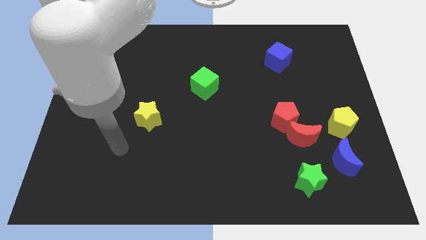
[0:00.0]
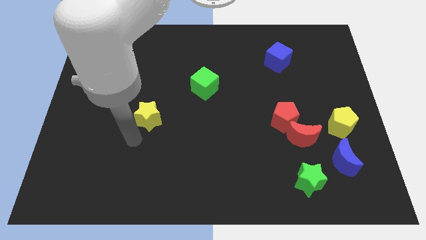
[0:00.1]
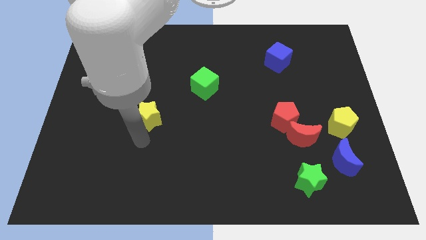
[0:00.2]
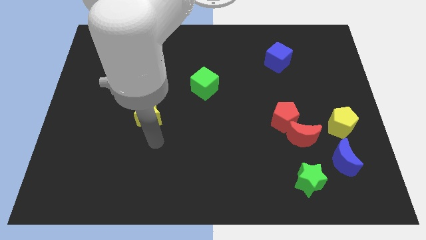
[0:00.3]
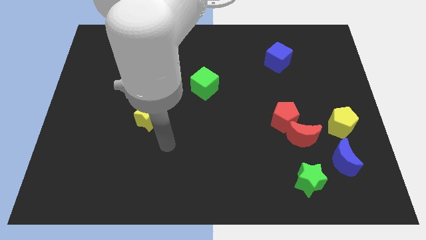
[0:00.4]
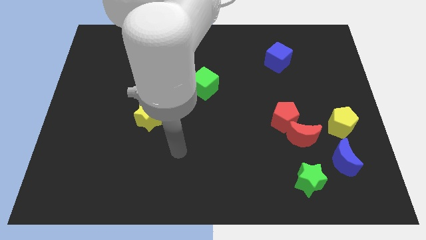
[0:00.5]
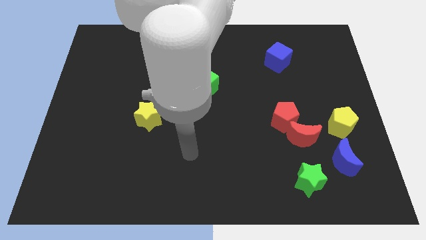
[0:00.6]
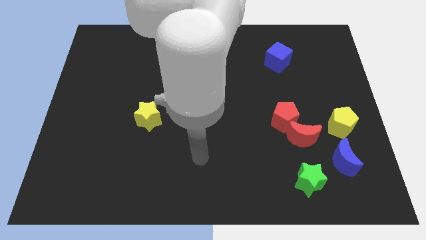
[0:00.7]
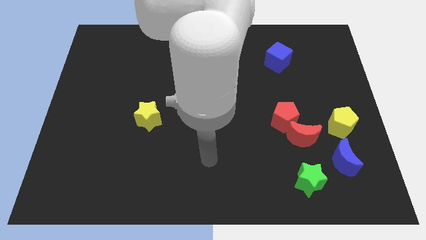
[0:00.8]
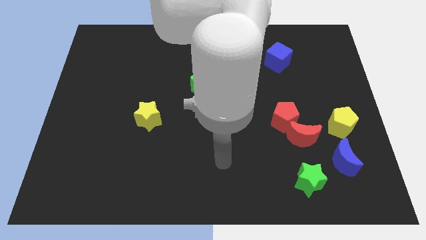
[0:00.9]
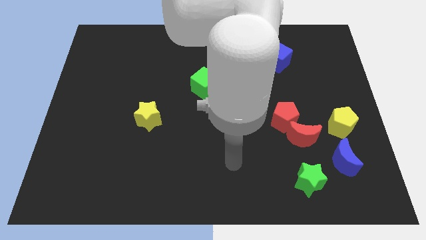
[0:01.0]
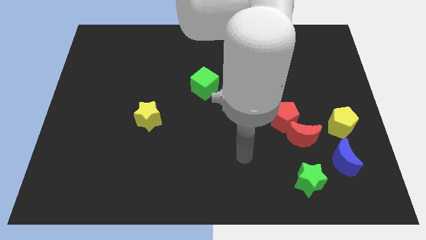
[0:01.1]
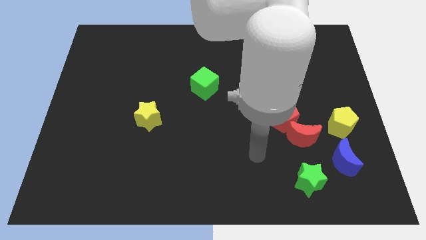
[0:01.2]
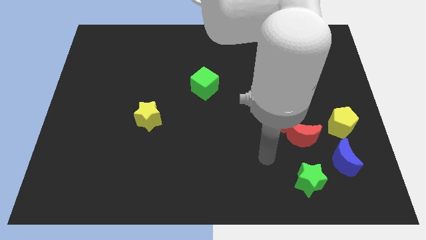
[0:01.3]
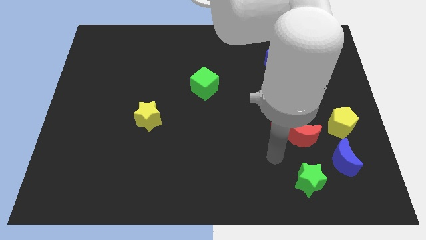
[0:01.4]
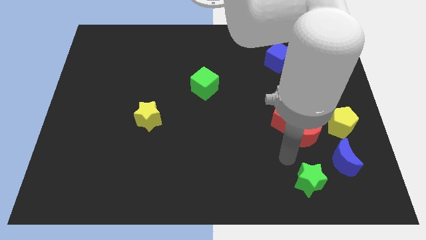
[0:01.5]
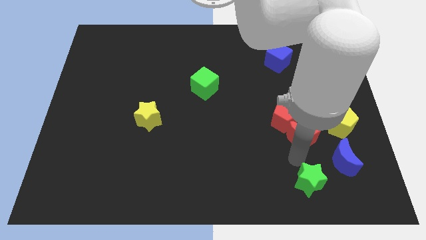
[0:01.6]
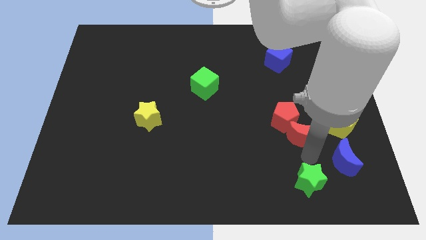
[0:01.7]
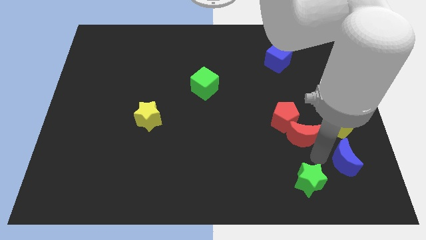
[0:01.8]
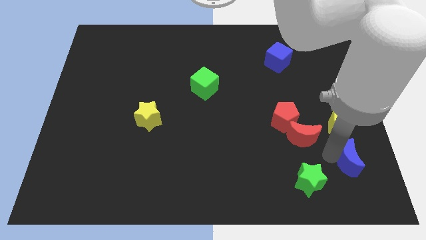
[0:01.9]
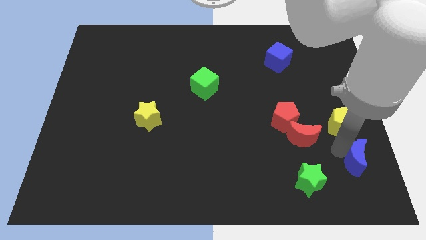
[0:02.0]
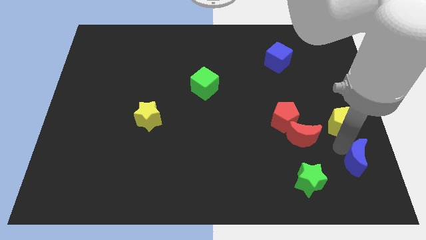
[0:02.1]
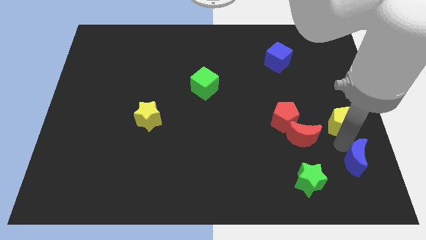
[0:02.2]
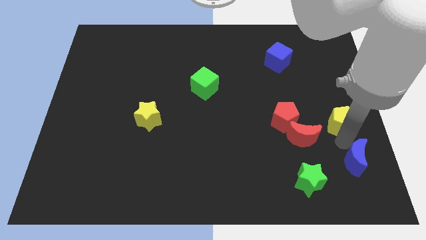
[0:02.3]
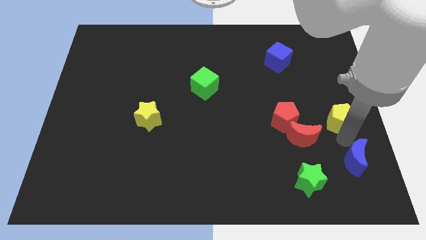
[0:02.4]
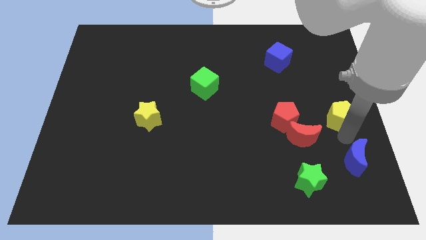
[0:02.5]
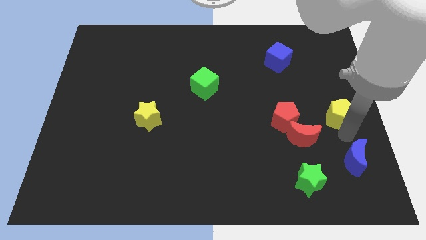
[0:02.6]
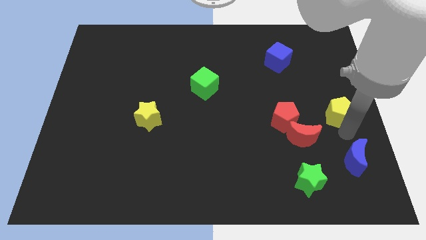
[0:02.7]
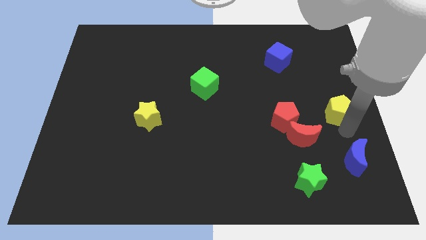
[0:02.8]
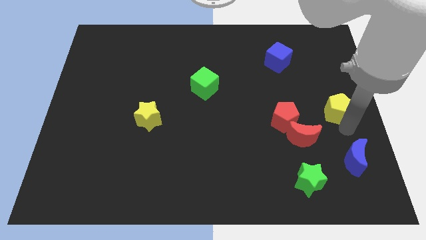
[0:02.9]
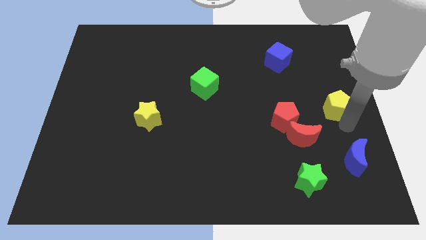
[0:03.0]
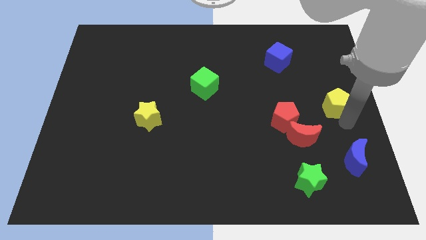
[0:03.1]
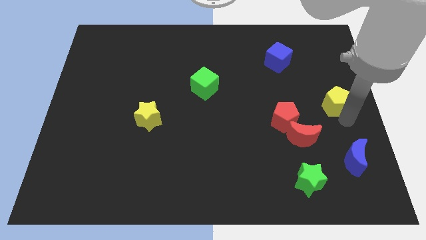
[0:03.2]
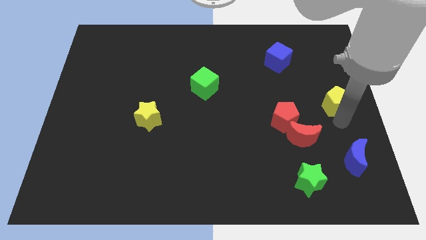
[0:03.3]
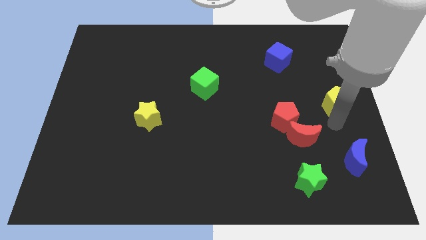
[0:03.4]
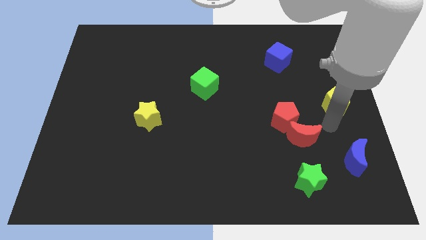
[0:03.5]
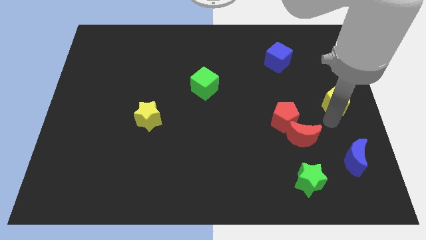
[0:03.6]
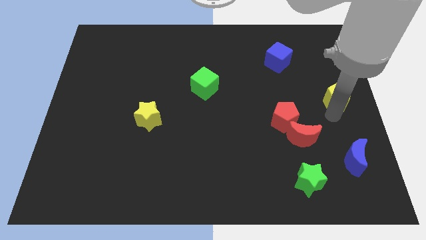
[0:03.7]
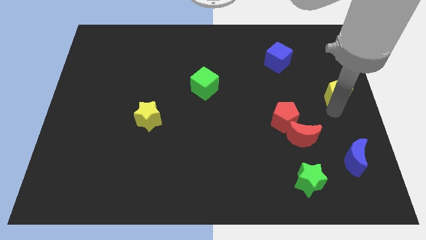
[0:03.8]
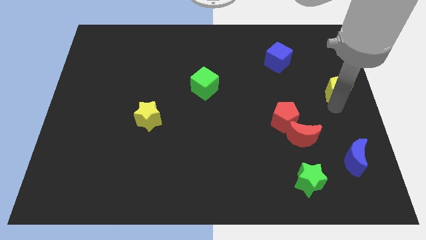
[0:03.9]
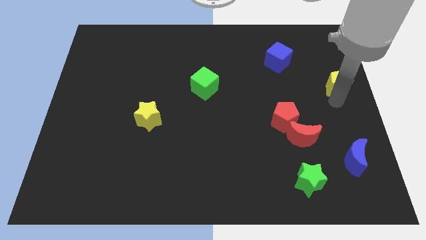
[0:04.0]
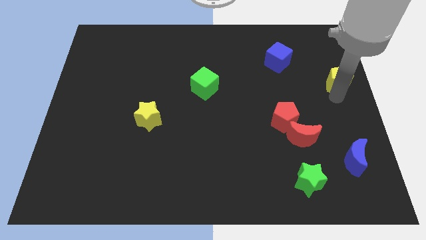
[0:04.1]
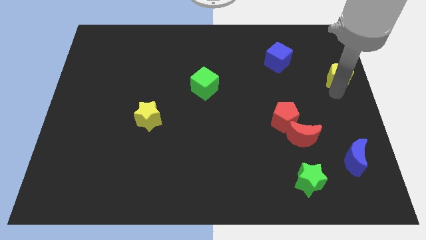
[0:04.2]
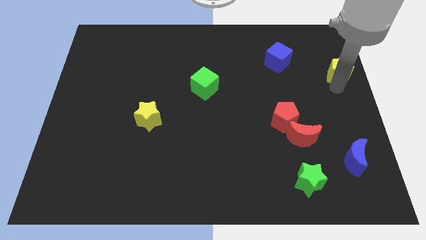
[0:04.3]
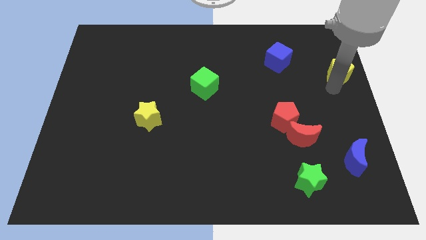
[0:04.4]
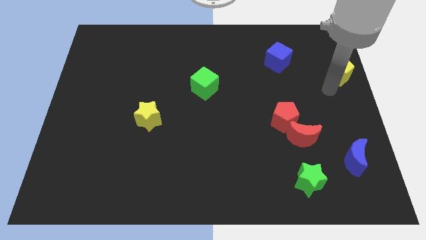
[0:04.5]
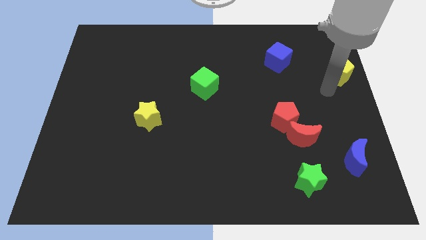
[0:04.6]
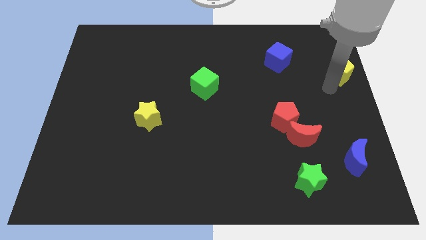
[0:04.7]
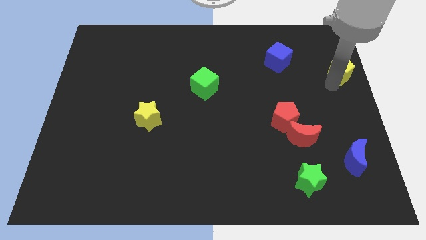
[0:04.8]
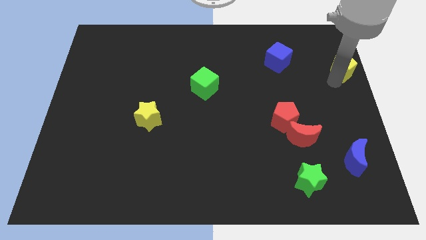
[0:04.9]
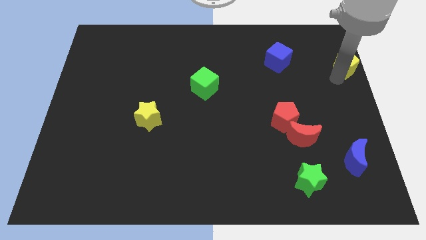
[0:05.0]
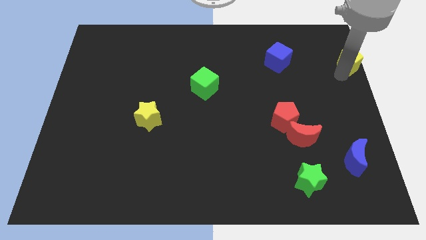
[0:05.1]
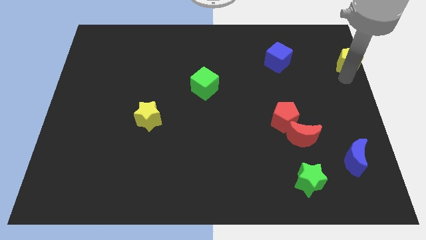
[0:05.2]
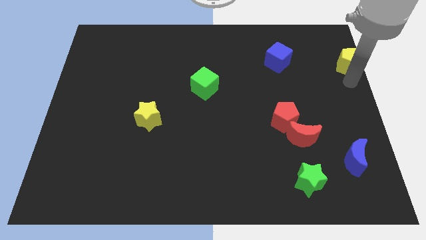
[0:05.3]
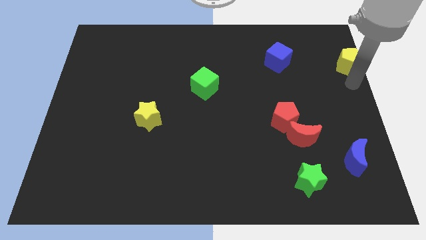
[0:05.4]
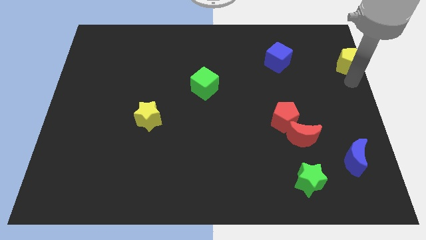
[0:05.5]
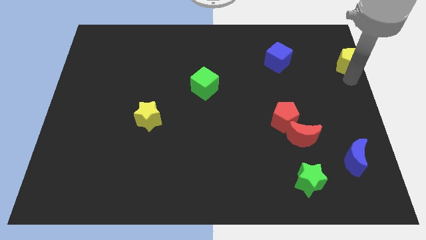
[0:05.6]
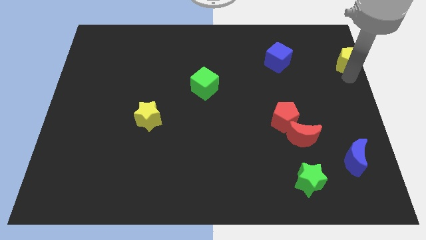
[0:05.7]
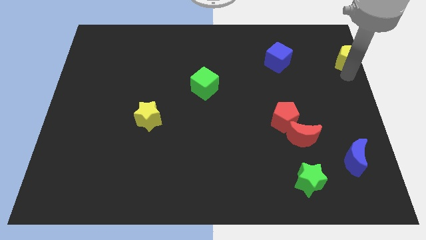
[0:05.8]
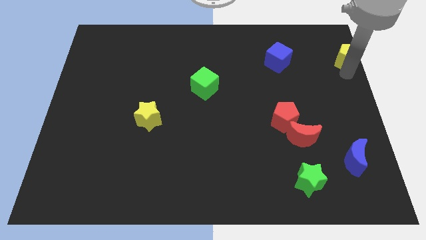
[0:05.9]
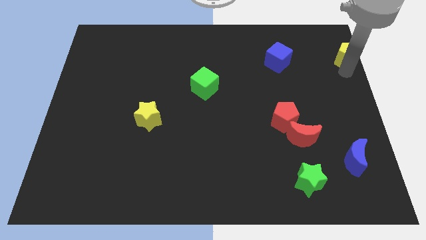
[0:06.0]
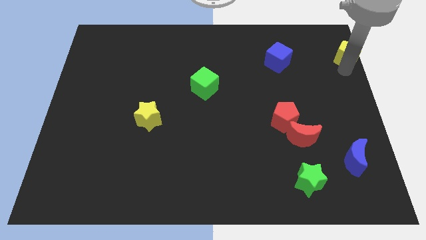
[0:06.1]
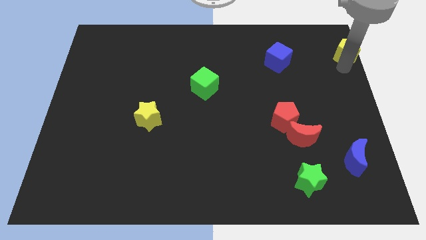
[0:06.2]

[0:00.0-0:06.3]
put the yellow pentagon to the upper right corner
